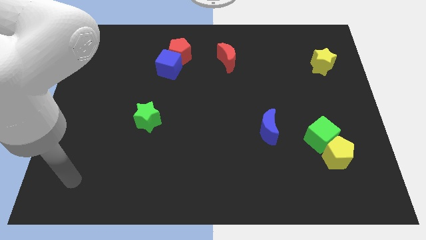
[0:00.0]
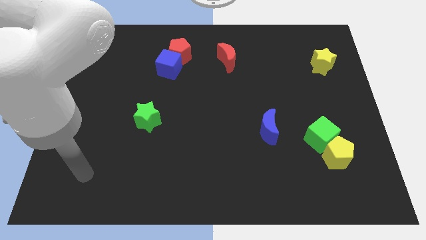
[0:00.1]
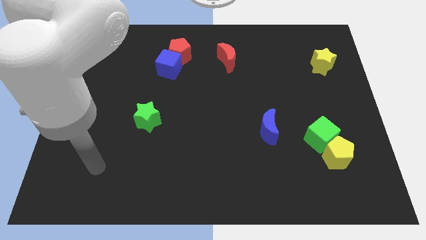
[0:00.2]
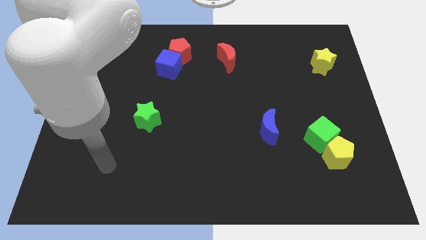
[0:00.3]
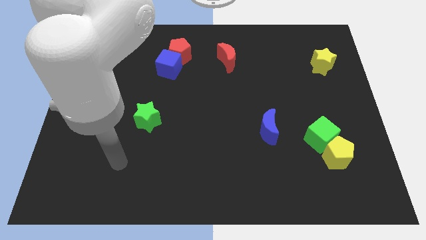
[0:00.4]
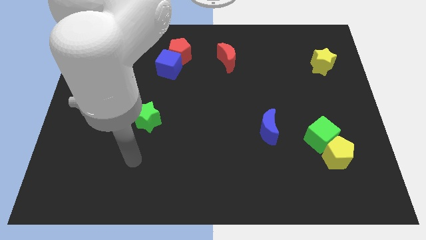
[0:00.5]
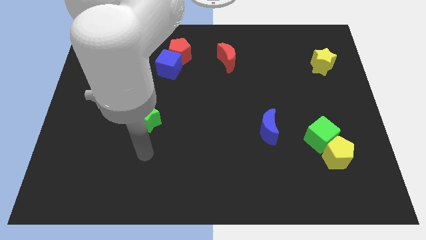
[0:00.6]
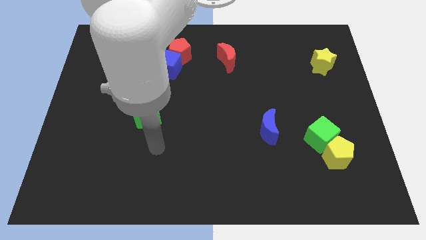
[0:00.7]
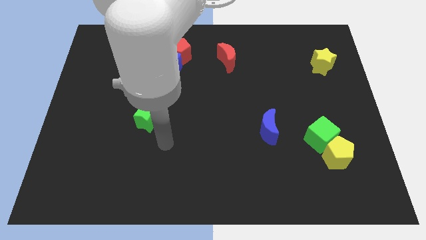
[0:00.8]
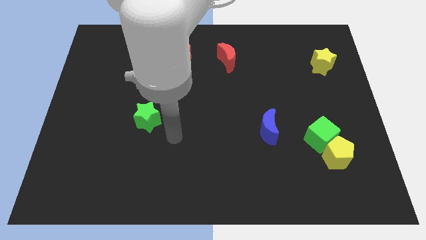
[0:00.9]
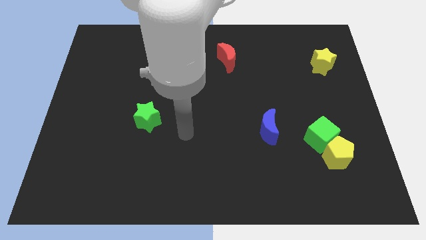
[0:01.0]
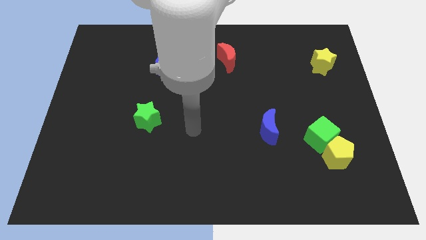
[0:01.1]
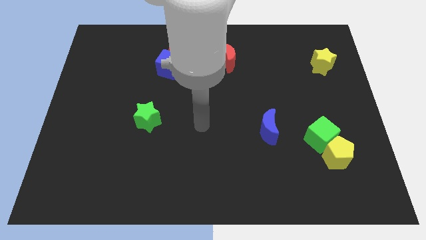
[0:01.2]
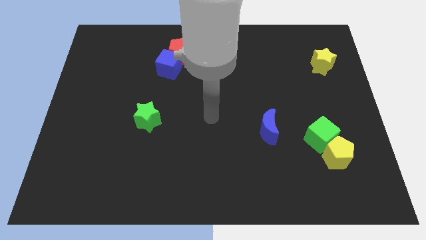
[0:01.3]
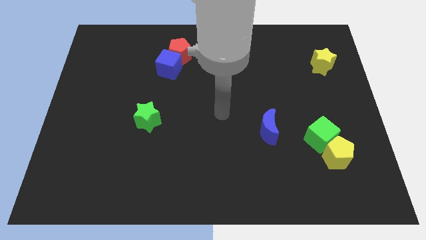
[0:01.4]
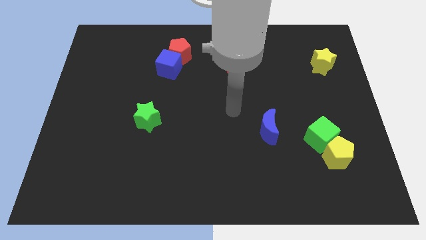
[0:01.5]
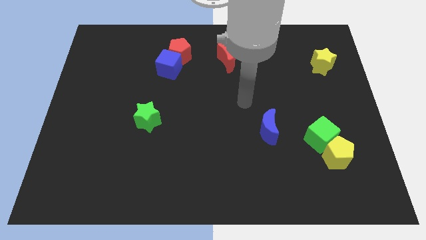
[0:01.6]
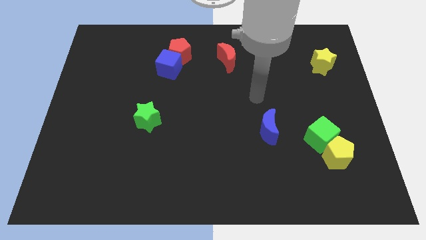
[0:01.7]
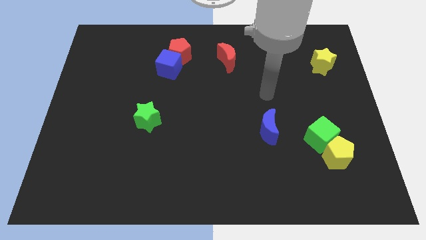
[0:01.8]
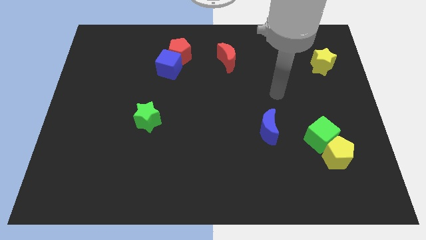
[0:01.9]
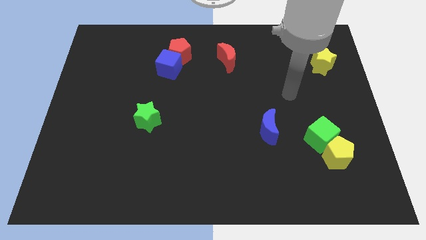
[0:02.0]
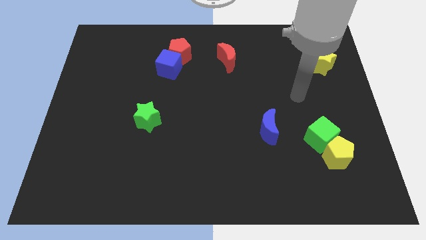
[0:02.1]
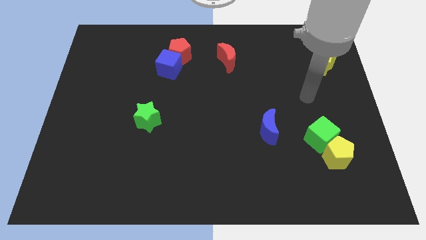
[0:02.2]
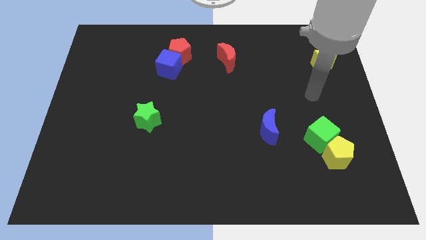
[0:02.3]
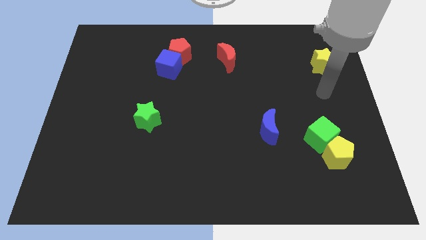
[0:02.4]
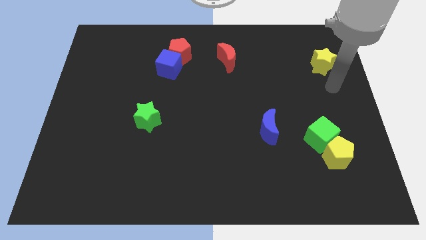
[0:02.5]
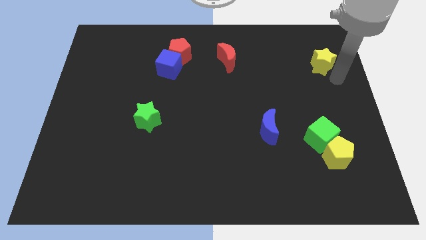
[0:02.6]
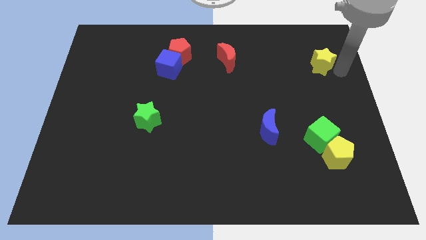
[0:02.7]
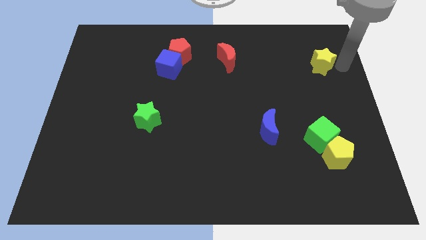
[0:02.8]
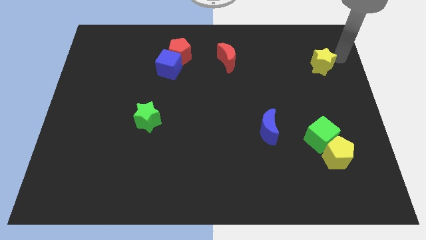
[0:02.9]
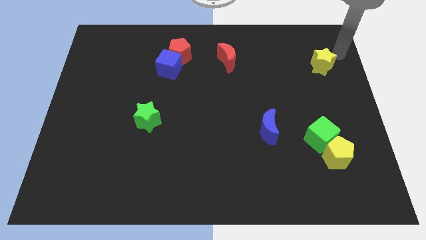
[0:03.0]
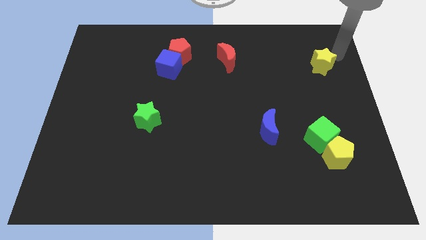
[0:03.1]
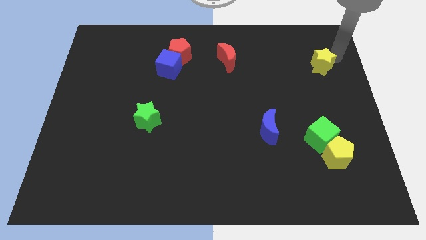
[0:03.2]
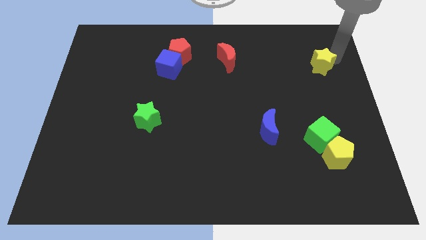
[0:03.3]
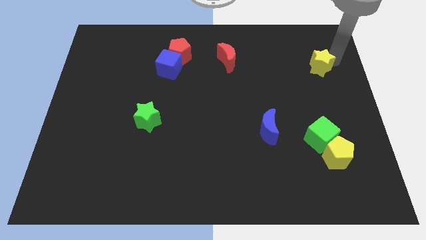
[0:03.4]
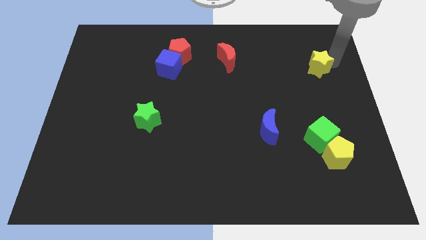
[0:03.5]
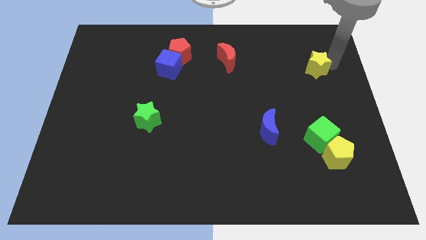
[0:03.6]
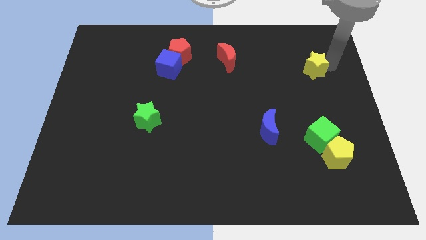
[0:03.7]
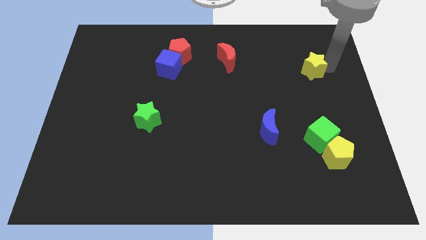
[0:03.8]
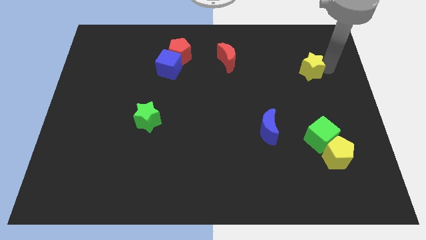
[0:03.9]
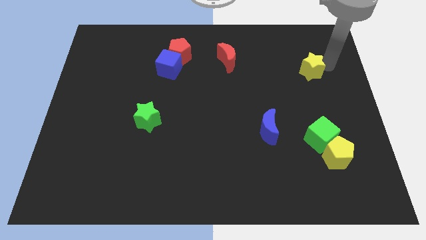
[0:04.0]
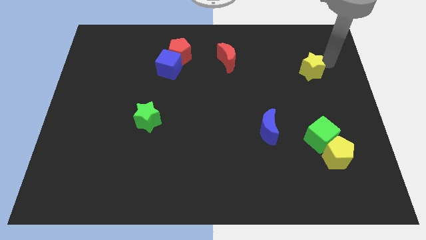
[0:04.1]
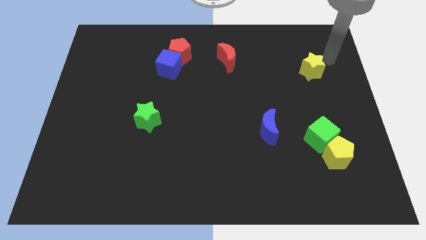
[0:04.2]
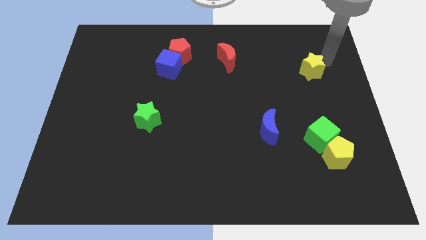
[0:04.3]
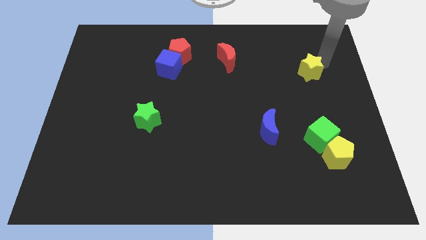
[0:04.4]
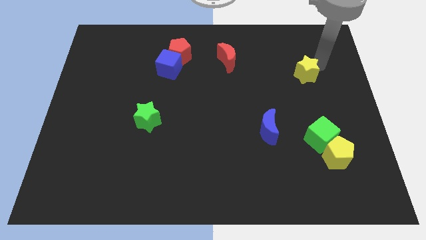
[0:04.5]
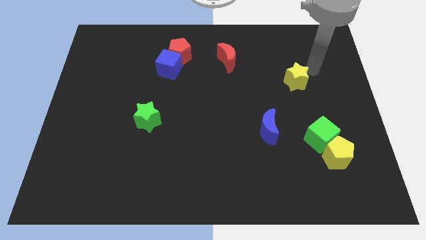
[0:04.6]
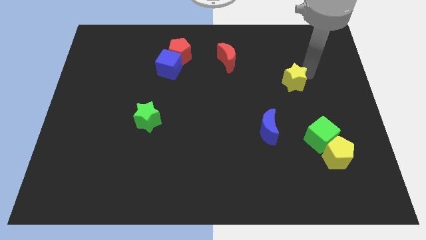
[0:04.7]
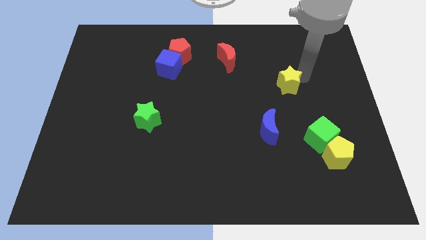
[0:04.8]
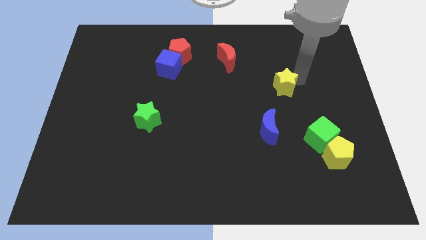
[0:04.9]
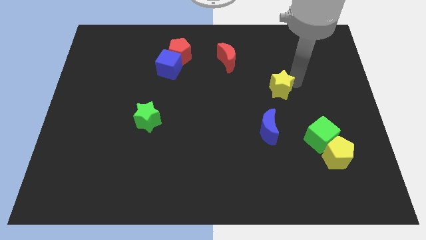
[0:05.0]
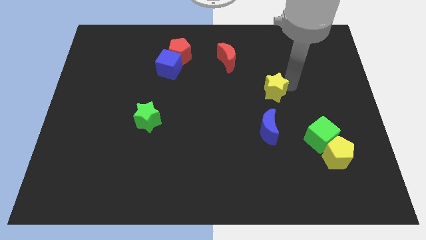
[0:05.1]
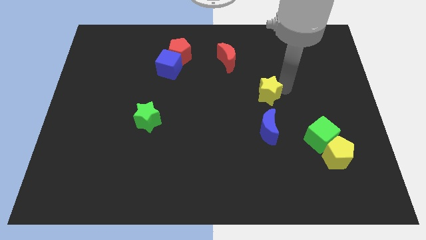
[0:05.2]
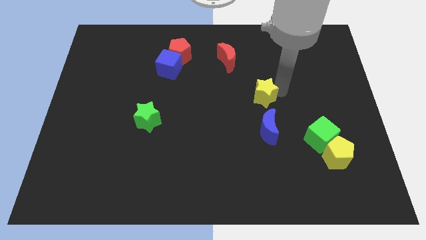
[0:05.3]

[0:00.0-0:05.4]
slide the yellow star to the center of the board

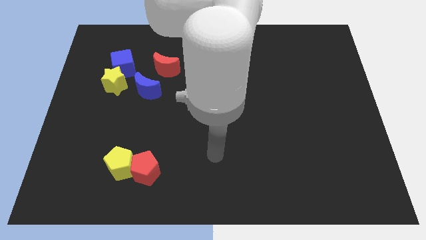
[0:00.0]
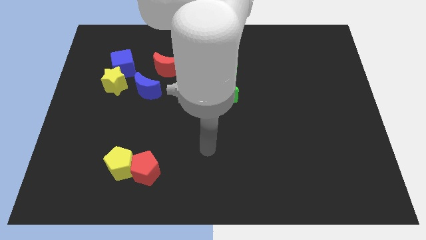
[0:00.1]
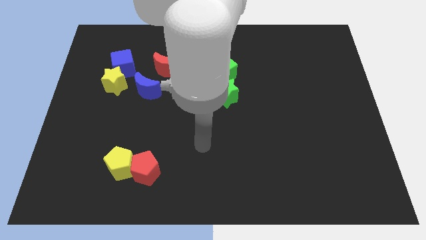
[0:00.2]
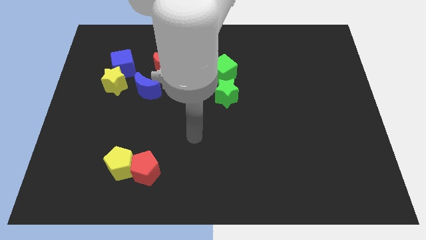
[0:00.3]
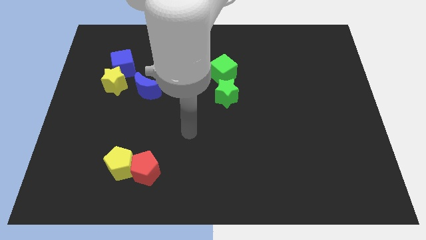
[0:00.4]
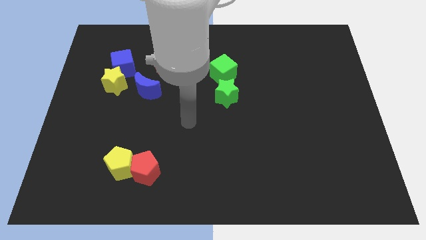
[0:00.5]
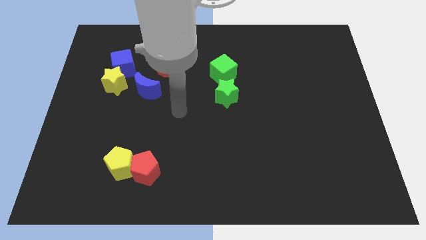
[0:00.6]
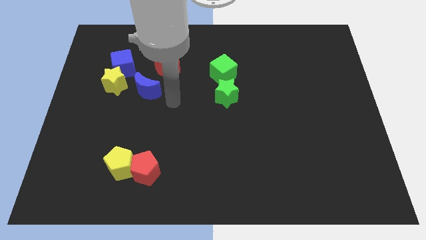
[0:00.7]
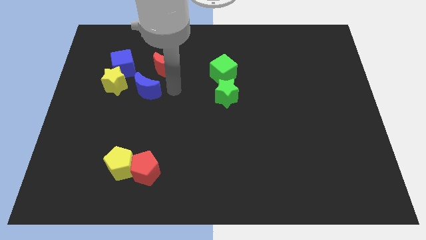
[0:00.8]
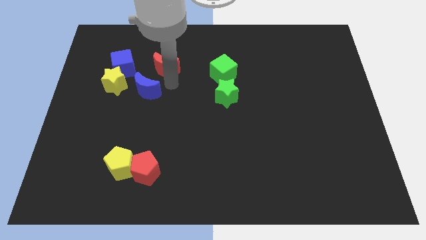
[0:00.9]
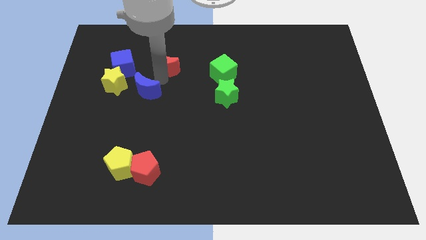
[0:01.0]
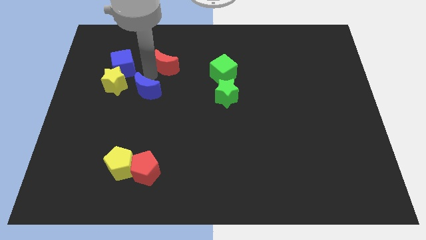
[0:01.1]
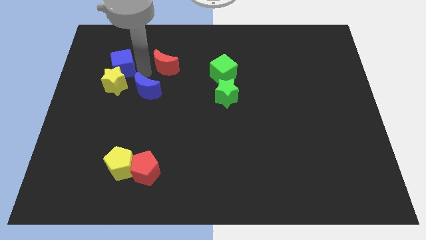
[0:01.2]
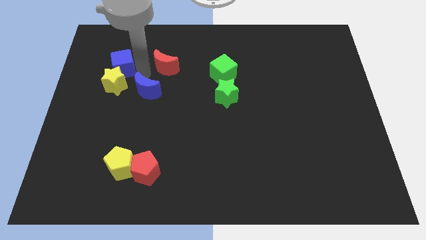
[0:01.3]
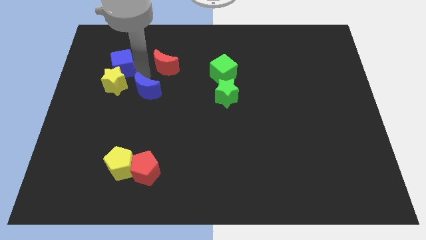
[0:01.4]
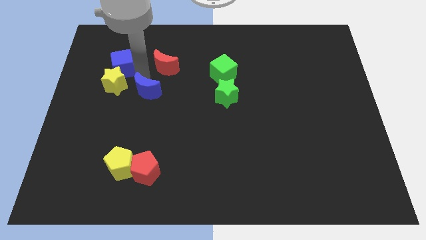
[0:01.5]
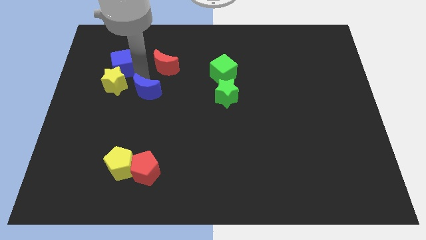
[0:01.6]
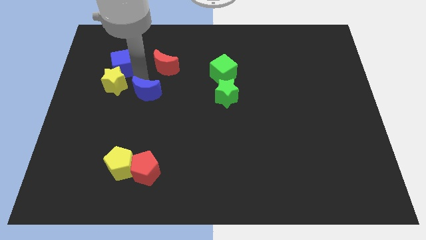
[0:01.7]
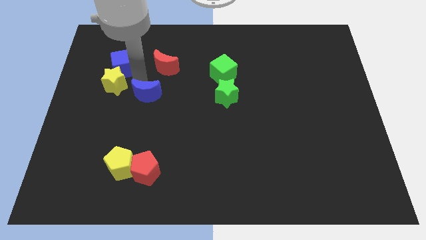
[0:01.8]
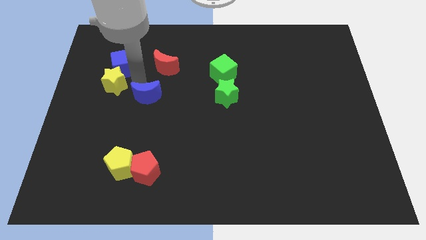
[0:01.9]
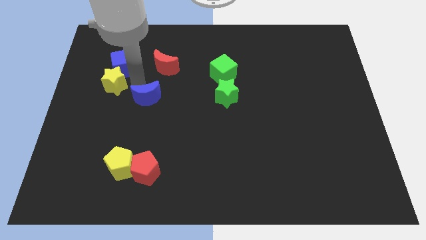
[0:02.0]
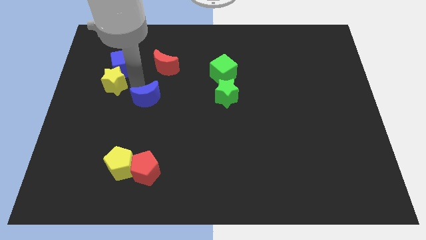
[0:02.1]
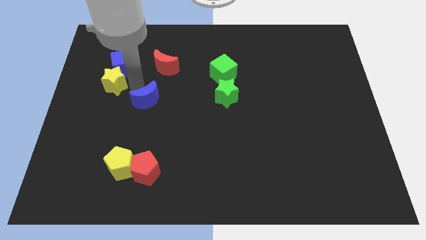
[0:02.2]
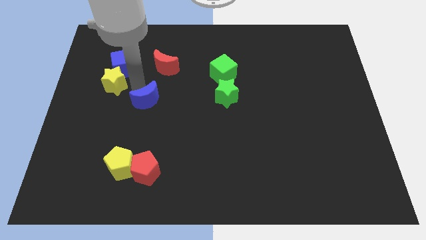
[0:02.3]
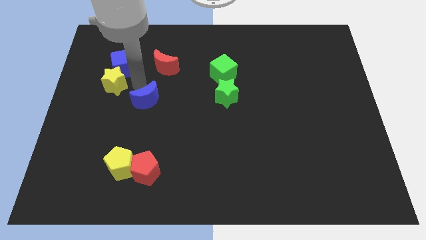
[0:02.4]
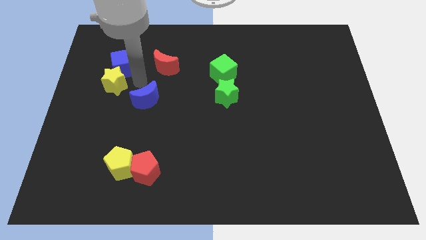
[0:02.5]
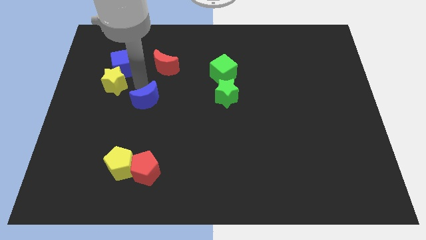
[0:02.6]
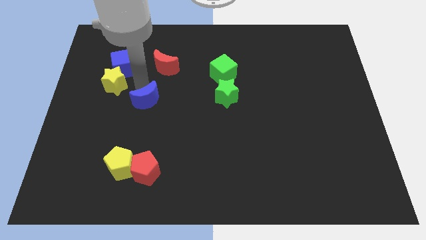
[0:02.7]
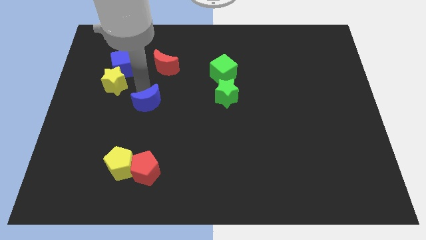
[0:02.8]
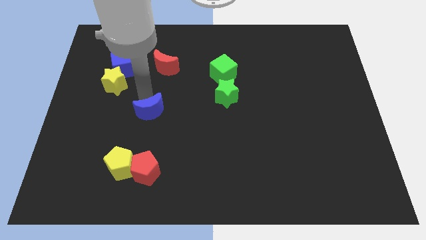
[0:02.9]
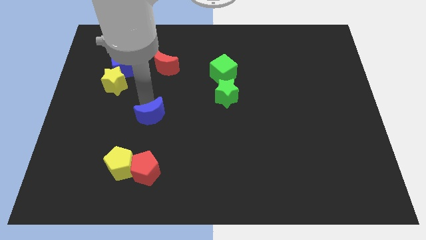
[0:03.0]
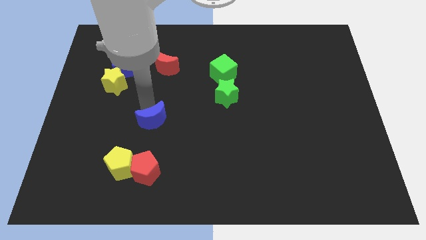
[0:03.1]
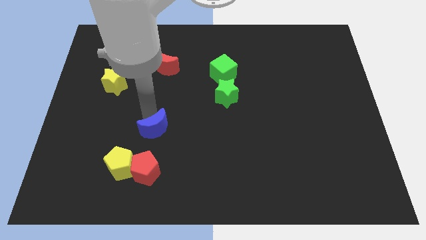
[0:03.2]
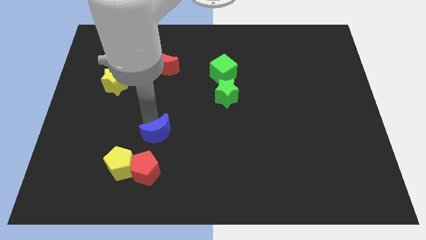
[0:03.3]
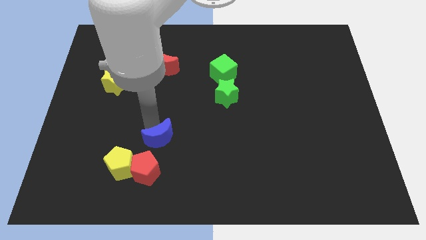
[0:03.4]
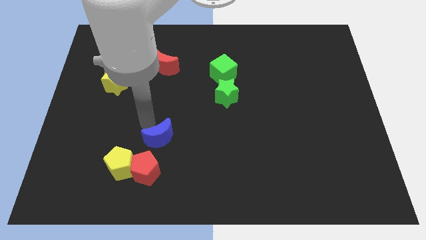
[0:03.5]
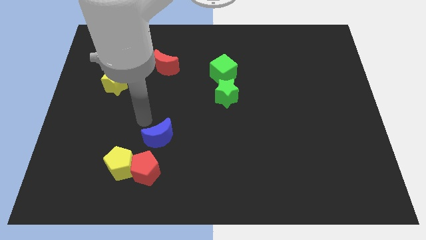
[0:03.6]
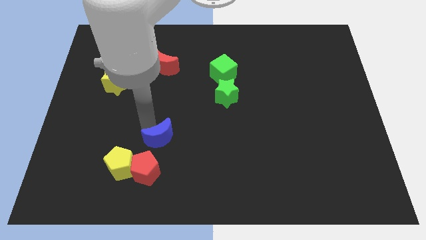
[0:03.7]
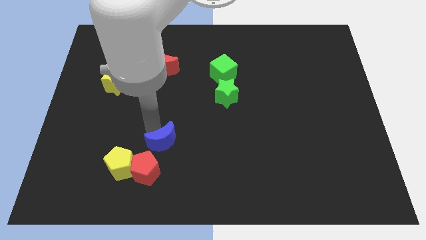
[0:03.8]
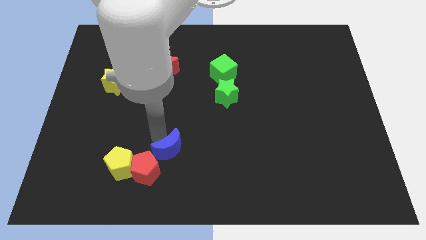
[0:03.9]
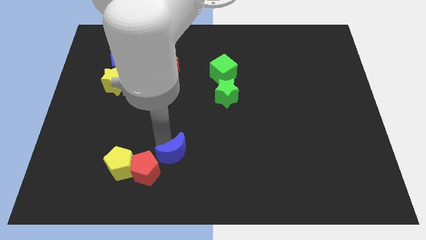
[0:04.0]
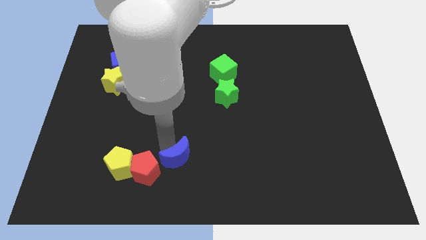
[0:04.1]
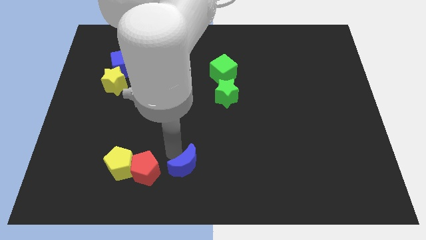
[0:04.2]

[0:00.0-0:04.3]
slide the blue moon to the bottom
